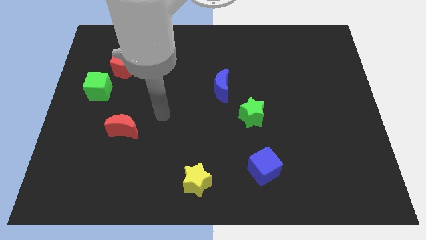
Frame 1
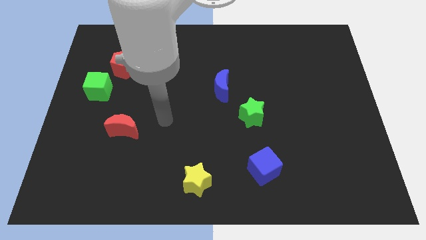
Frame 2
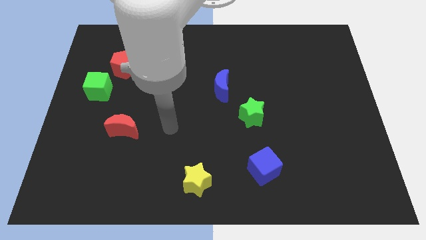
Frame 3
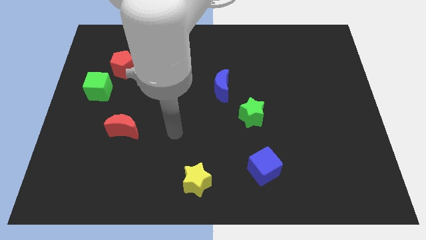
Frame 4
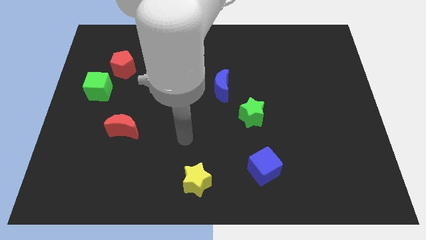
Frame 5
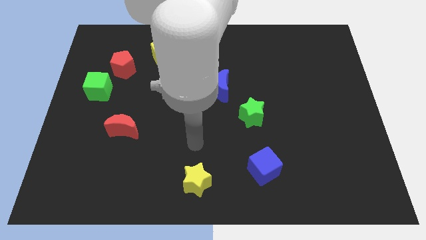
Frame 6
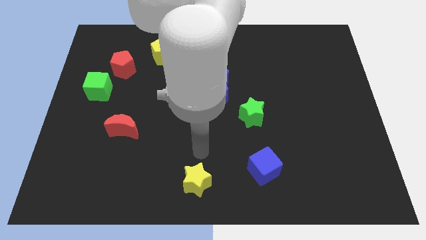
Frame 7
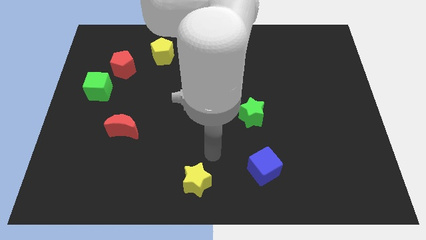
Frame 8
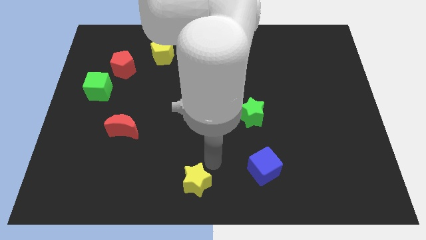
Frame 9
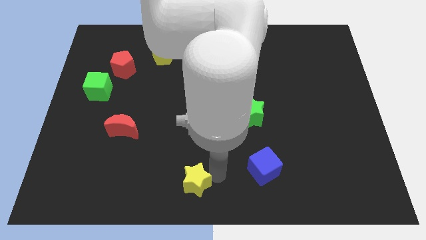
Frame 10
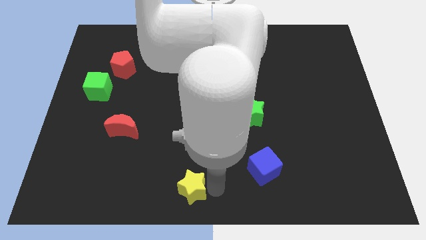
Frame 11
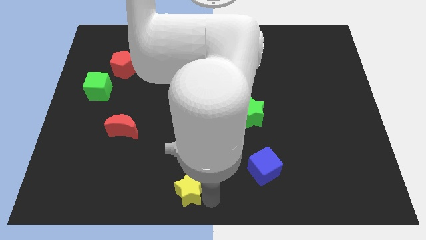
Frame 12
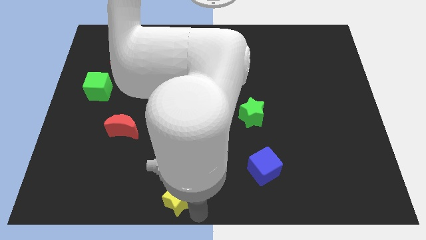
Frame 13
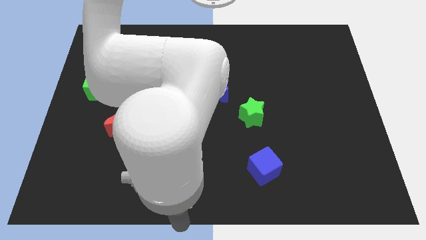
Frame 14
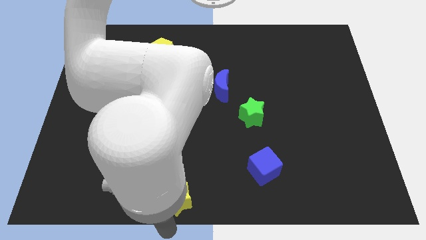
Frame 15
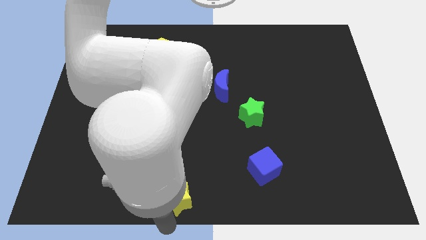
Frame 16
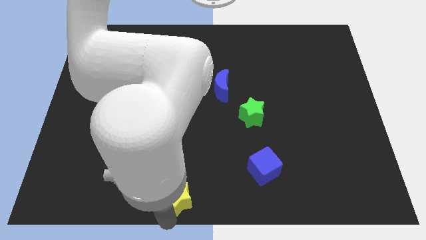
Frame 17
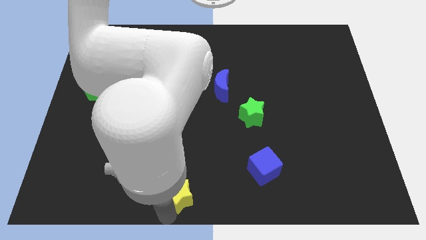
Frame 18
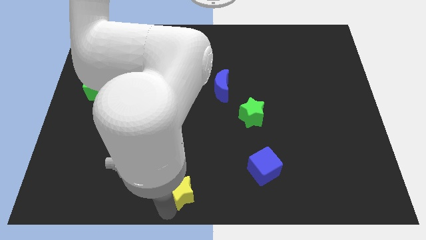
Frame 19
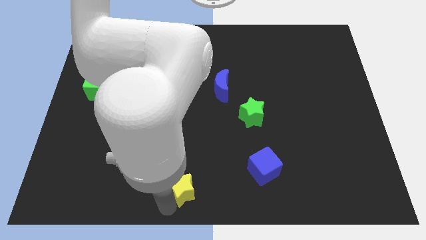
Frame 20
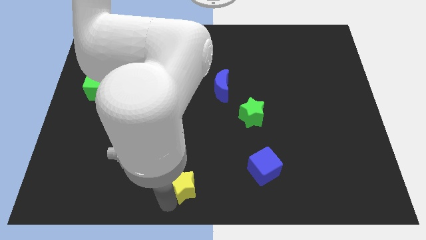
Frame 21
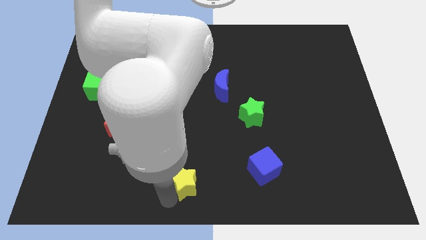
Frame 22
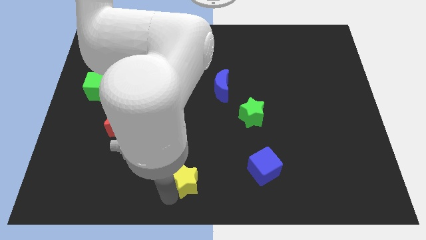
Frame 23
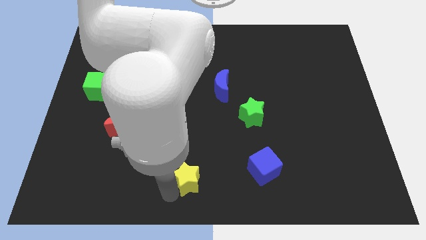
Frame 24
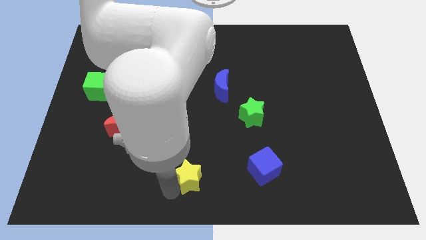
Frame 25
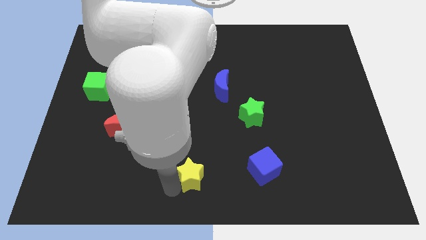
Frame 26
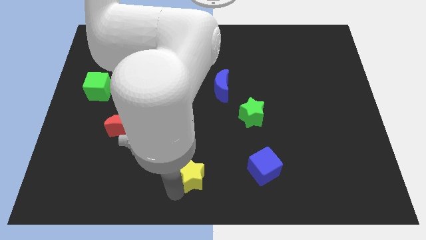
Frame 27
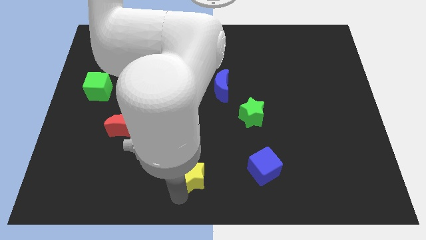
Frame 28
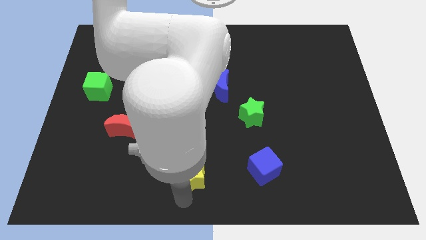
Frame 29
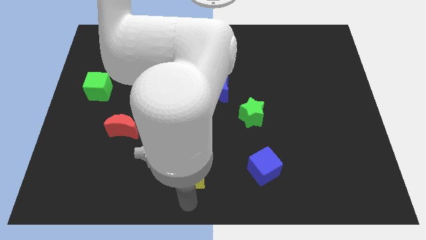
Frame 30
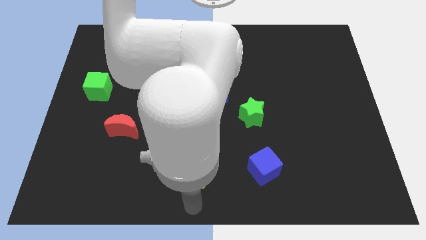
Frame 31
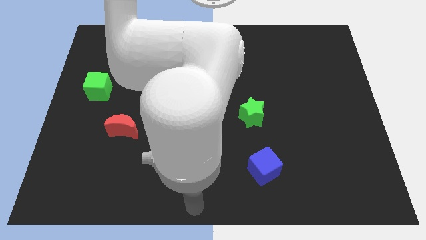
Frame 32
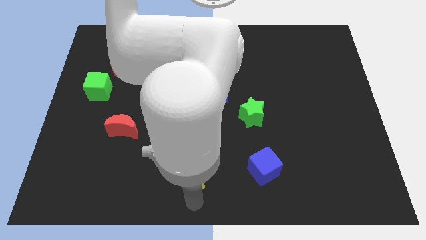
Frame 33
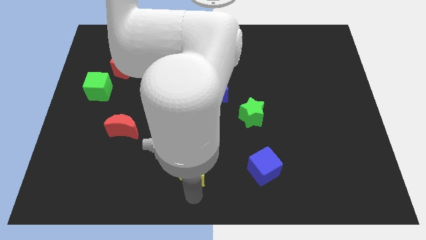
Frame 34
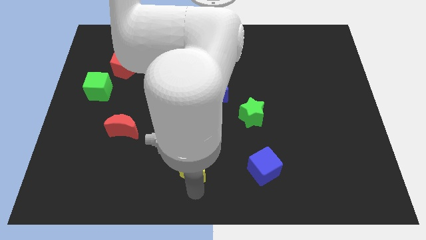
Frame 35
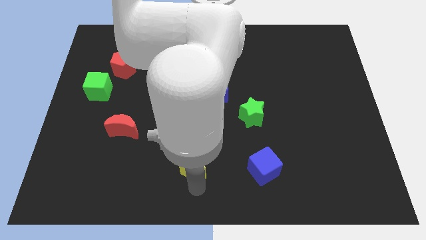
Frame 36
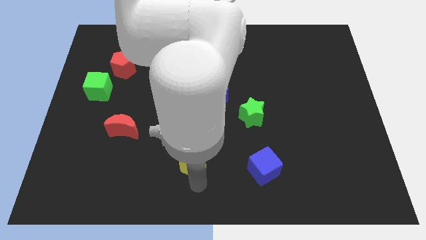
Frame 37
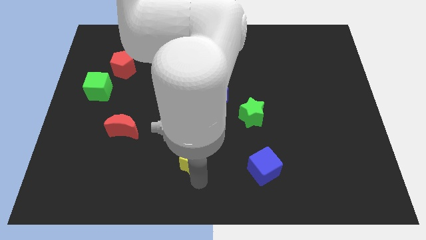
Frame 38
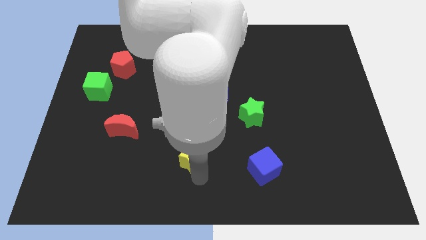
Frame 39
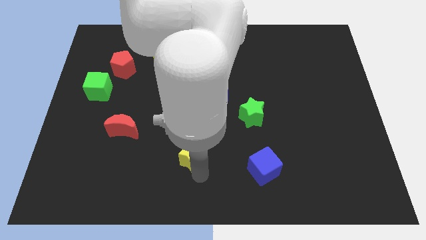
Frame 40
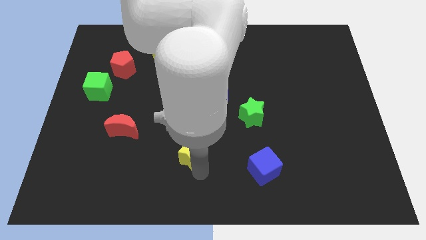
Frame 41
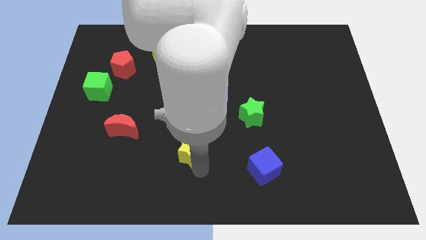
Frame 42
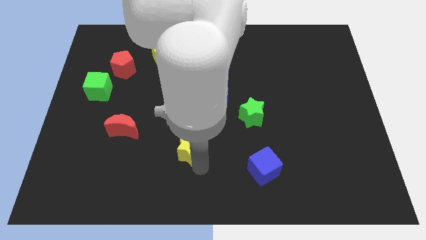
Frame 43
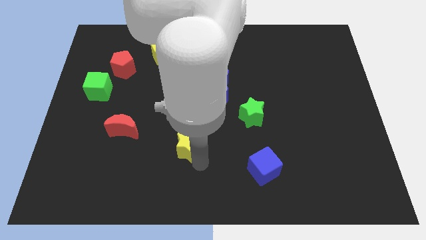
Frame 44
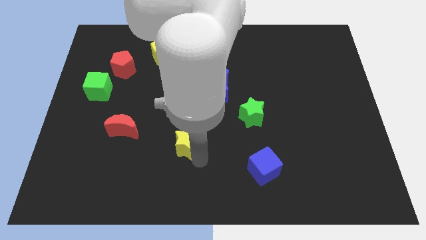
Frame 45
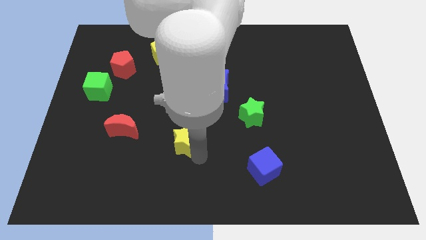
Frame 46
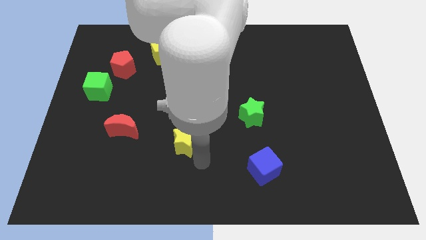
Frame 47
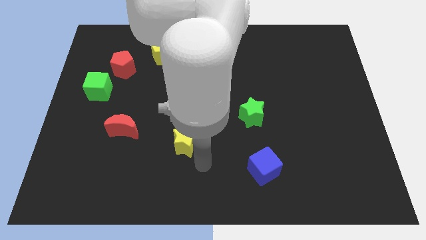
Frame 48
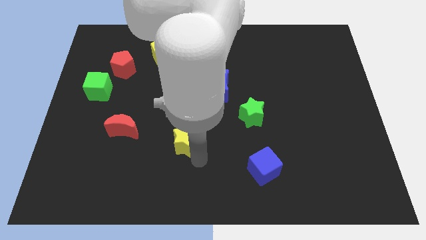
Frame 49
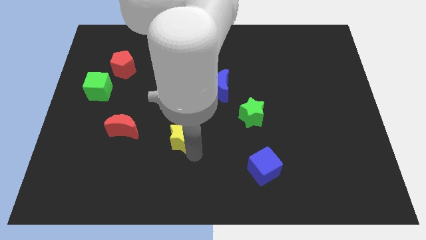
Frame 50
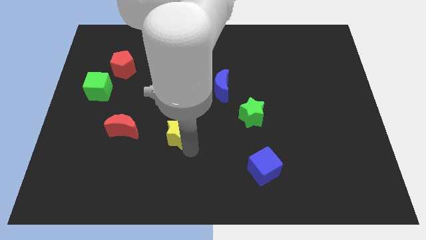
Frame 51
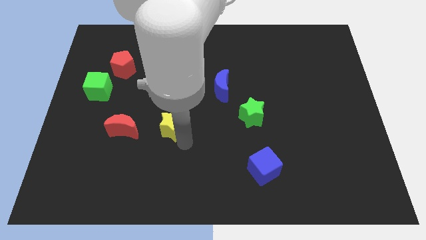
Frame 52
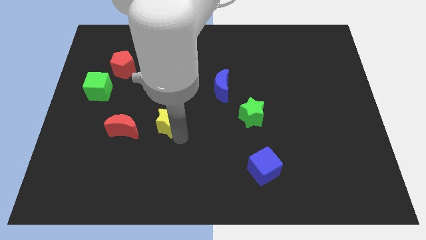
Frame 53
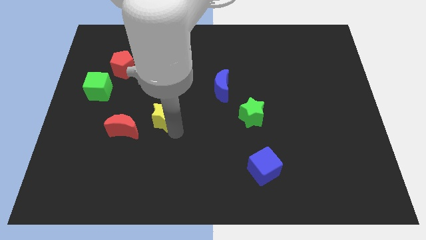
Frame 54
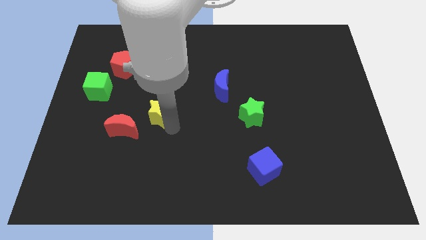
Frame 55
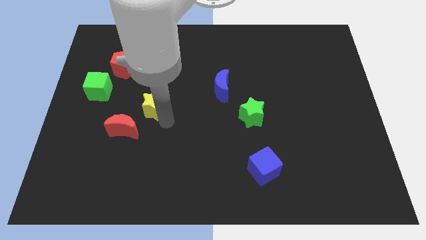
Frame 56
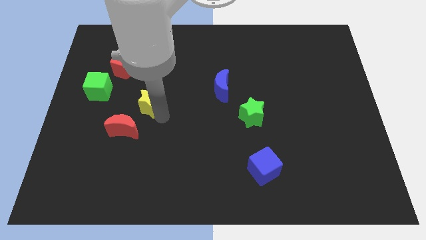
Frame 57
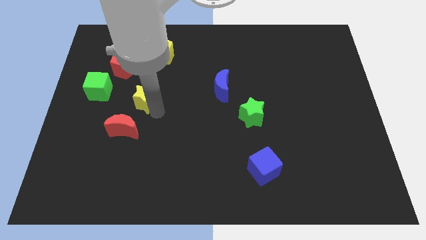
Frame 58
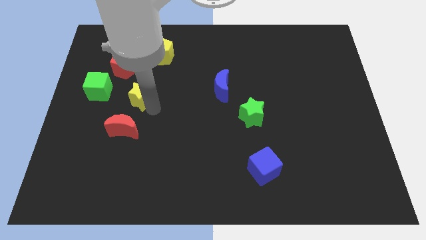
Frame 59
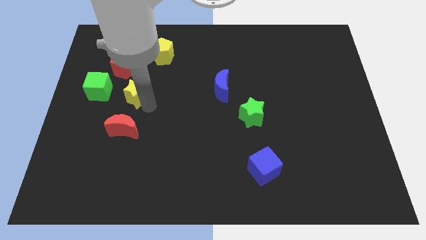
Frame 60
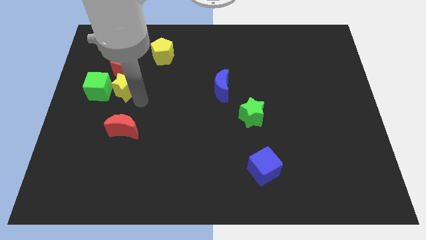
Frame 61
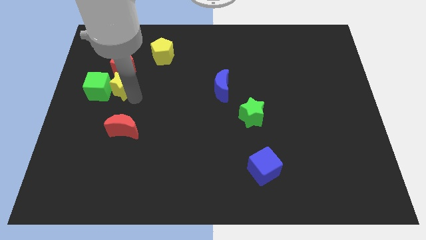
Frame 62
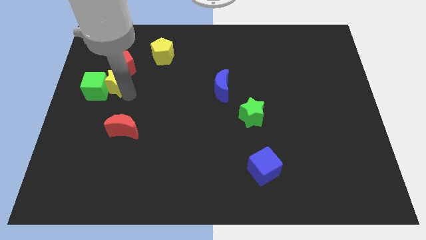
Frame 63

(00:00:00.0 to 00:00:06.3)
move the yellow star close to the red pentagon

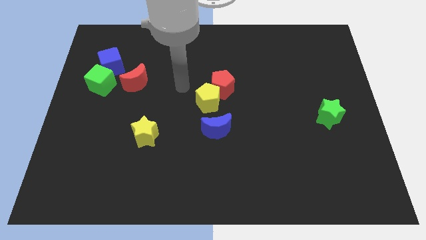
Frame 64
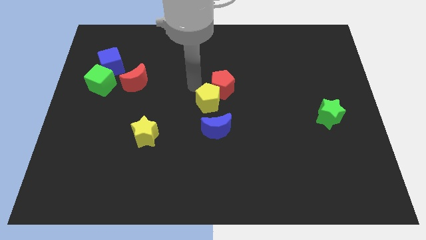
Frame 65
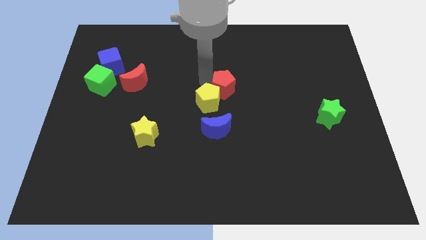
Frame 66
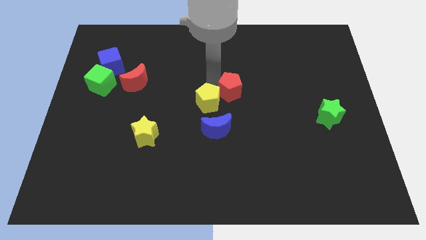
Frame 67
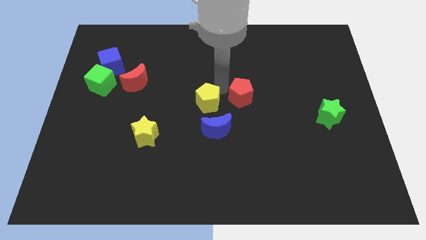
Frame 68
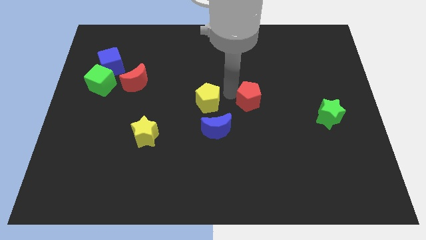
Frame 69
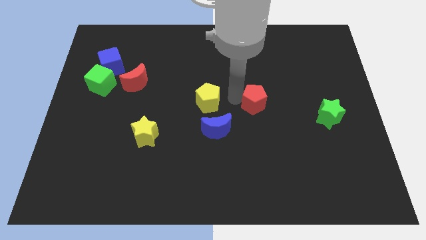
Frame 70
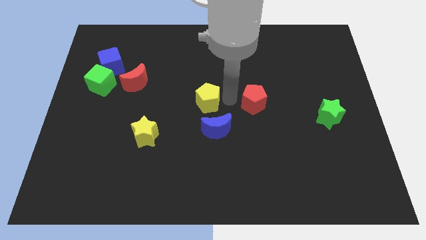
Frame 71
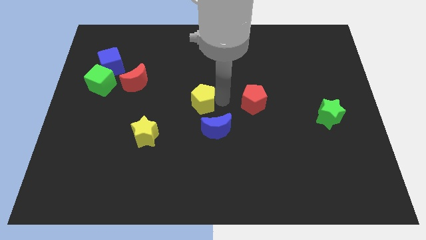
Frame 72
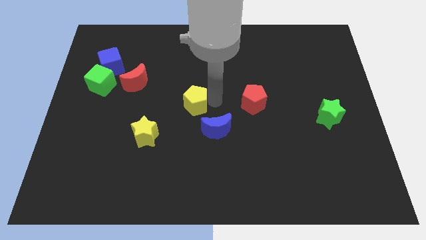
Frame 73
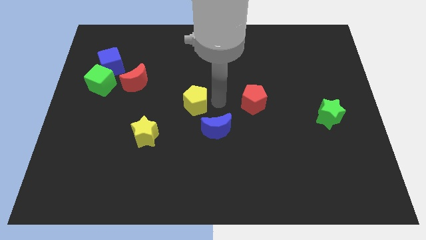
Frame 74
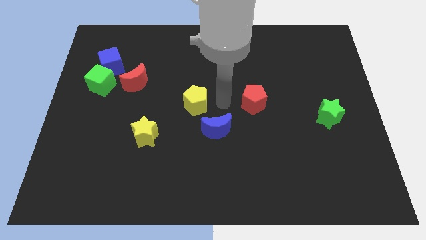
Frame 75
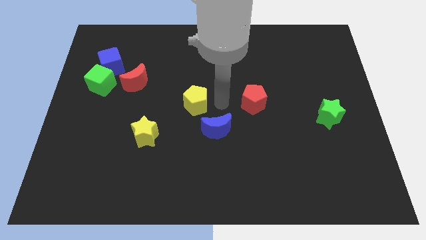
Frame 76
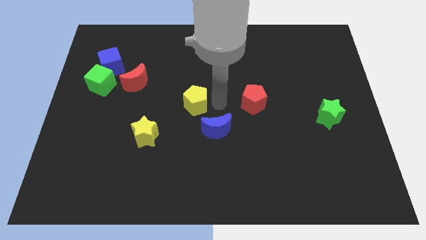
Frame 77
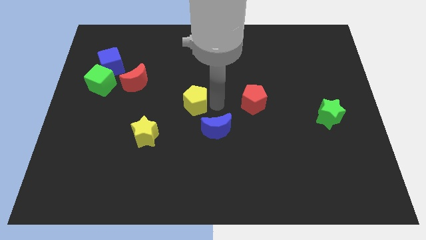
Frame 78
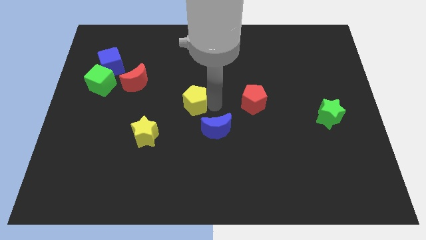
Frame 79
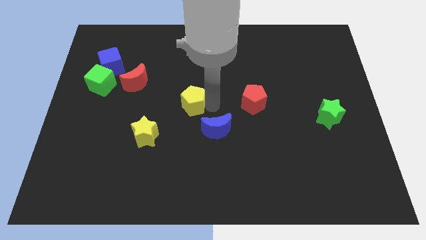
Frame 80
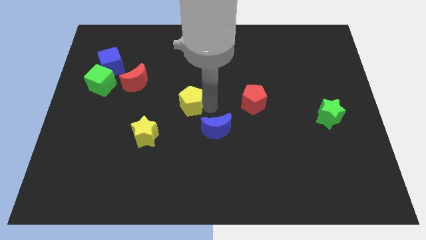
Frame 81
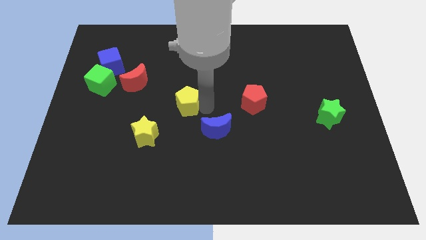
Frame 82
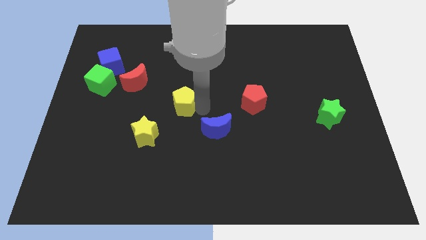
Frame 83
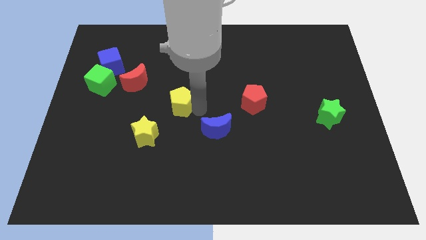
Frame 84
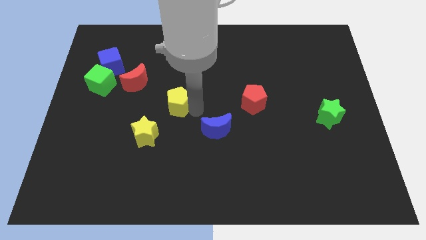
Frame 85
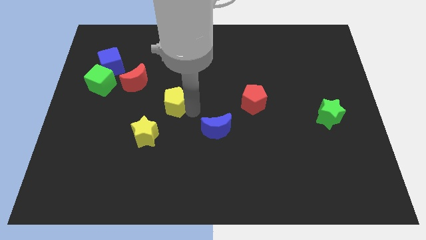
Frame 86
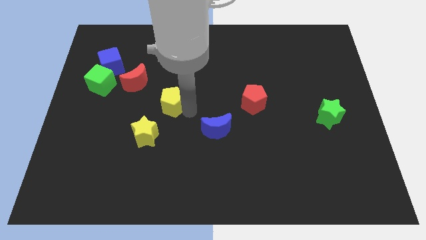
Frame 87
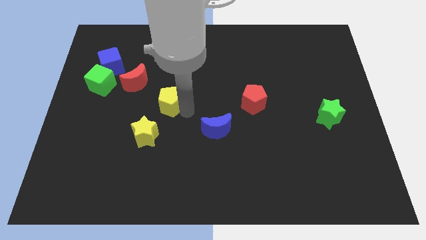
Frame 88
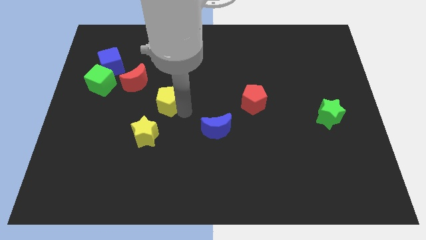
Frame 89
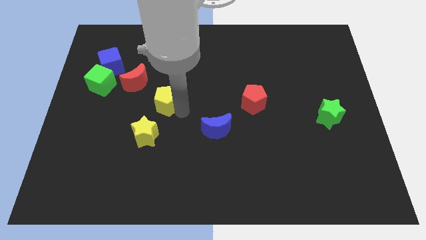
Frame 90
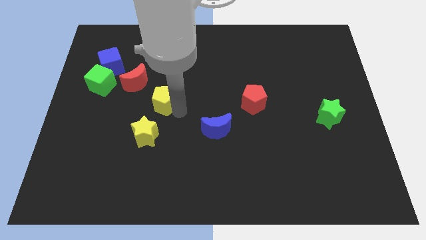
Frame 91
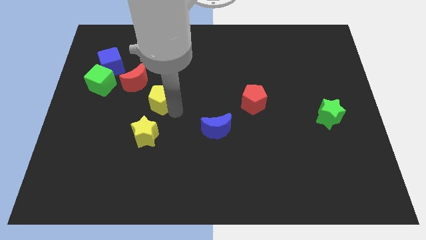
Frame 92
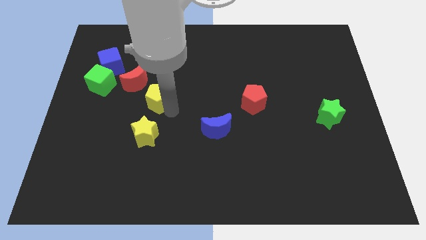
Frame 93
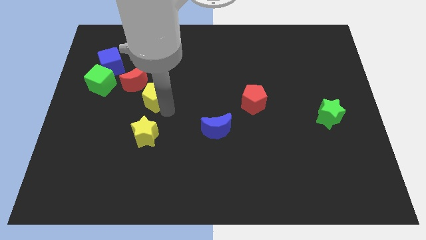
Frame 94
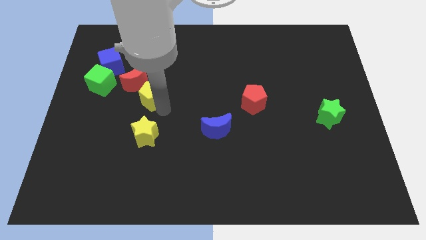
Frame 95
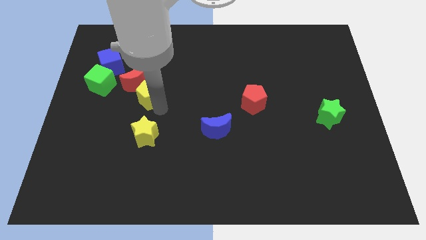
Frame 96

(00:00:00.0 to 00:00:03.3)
put the yellow pentagon next to the red moon
